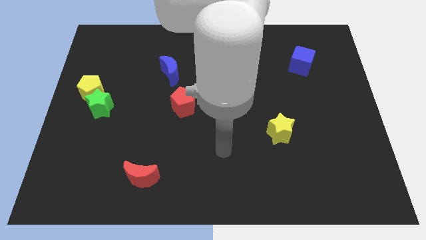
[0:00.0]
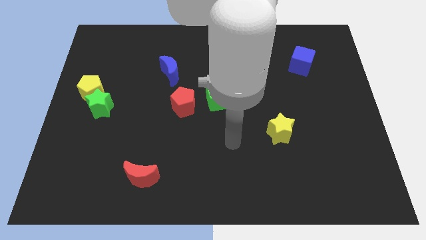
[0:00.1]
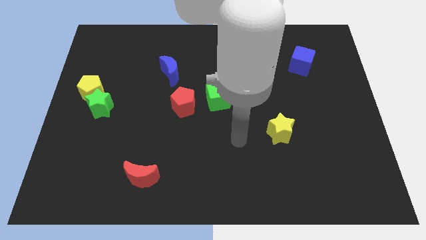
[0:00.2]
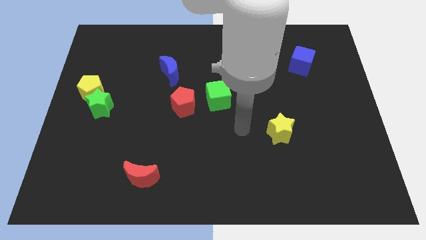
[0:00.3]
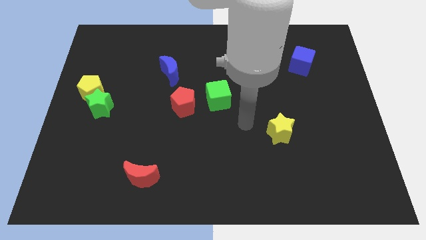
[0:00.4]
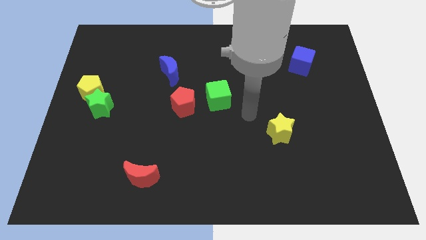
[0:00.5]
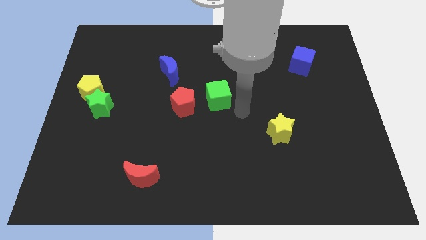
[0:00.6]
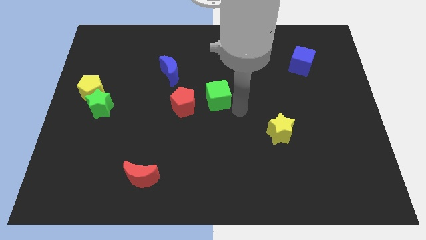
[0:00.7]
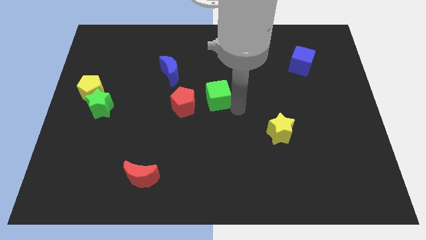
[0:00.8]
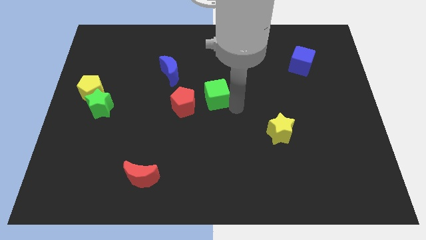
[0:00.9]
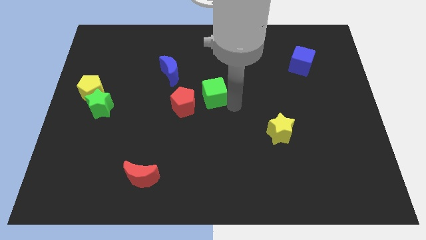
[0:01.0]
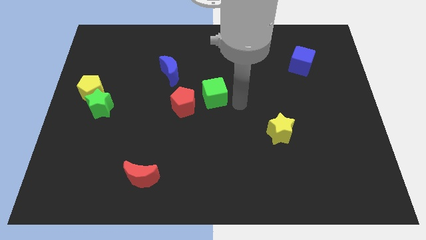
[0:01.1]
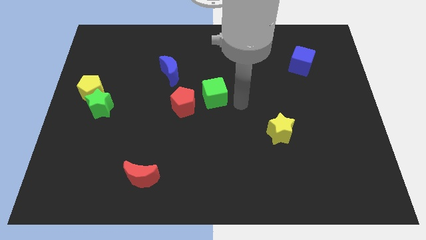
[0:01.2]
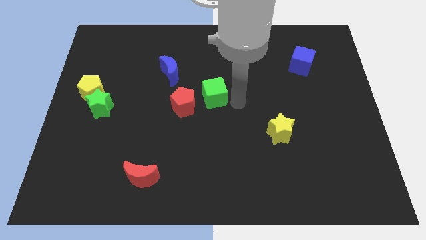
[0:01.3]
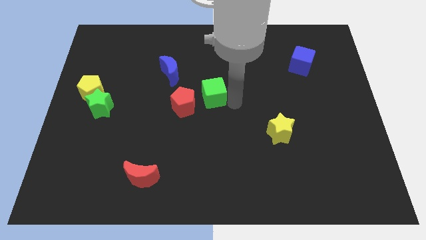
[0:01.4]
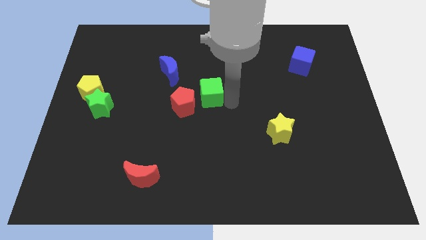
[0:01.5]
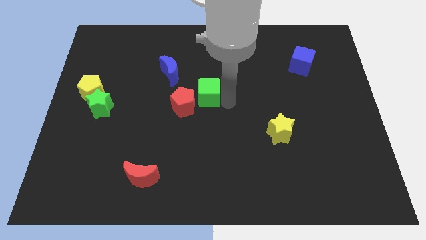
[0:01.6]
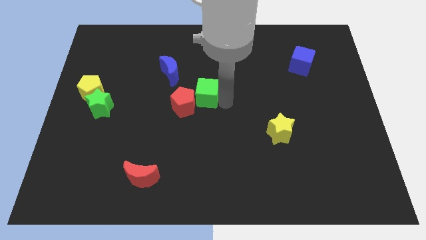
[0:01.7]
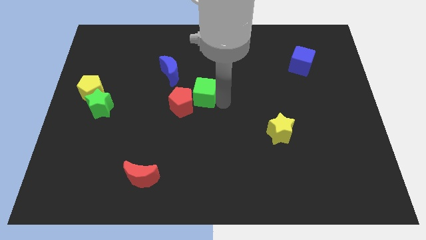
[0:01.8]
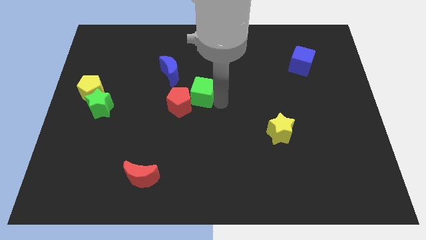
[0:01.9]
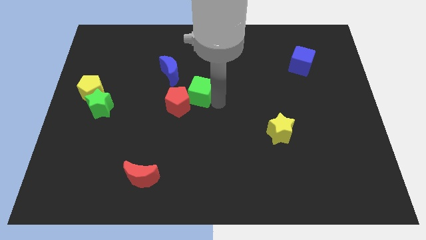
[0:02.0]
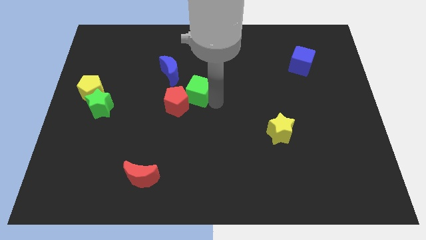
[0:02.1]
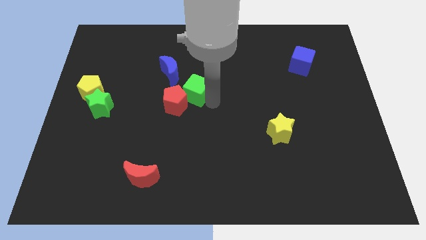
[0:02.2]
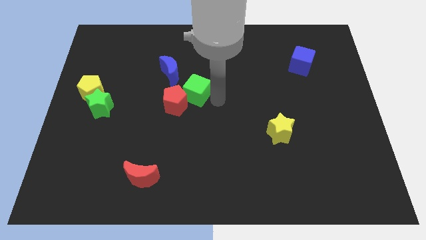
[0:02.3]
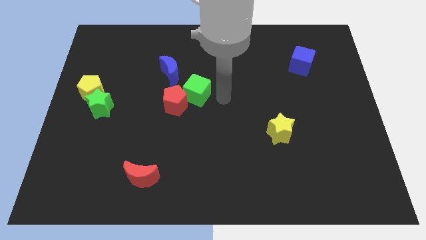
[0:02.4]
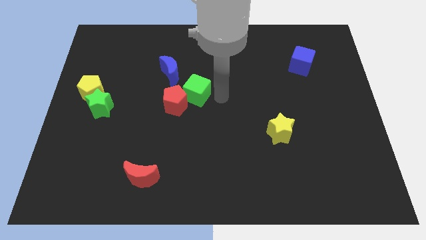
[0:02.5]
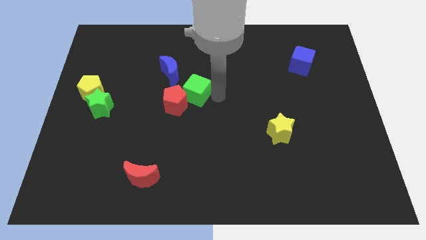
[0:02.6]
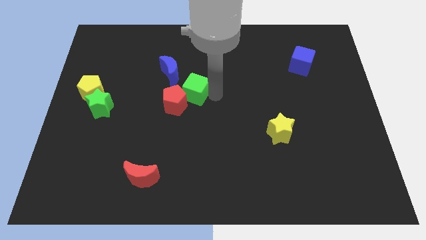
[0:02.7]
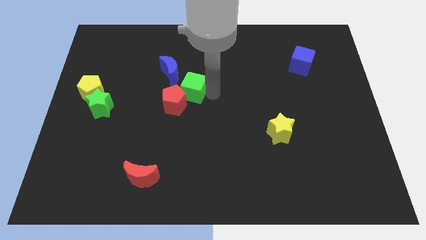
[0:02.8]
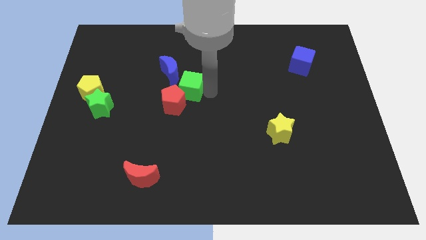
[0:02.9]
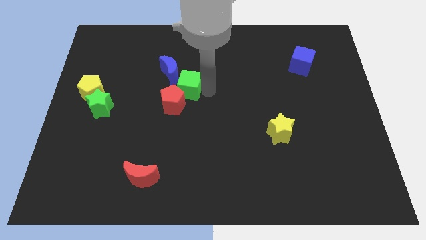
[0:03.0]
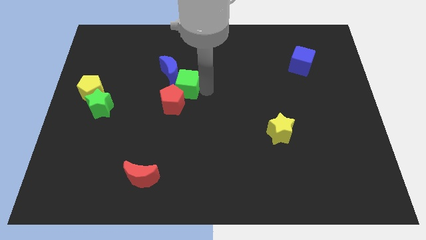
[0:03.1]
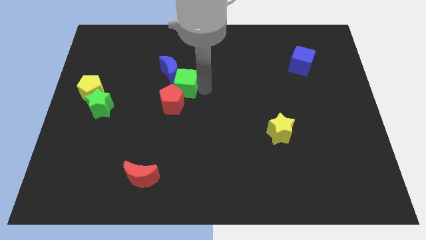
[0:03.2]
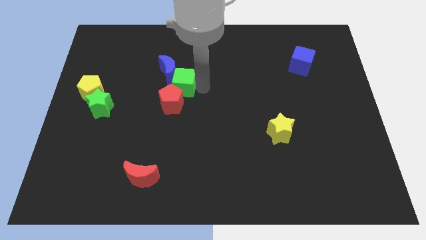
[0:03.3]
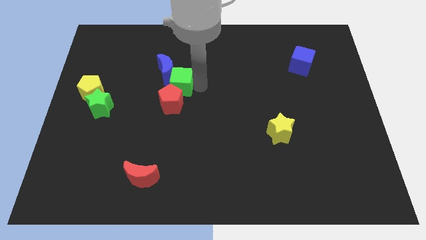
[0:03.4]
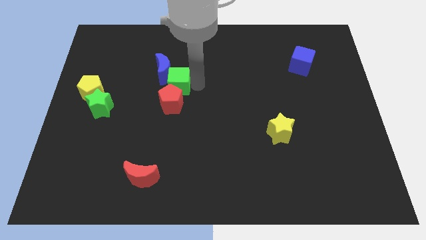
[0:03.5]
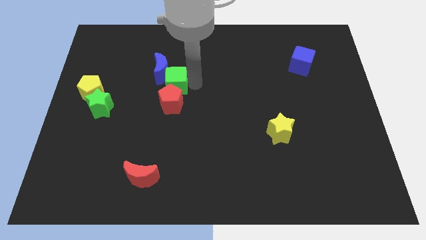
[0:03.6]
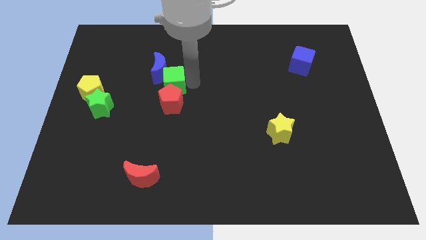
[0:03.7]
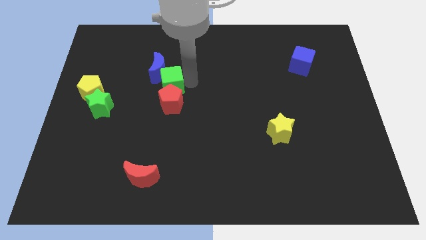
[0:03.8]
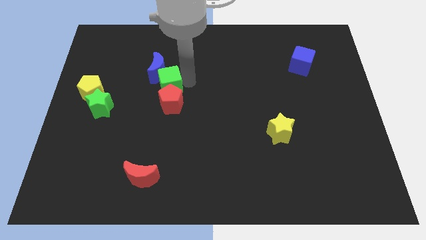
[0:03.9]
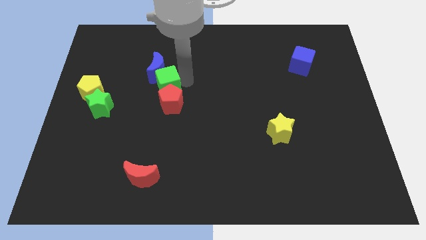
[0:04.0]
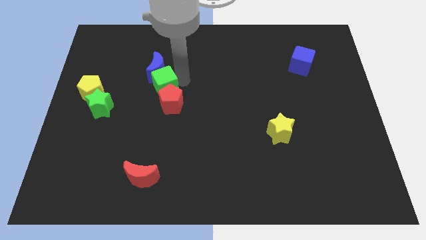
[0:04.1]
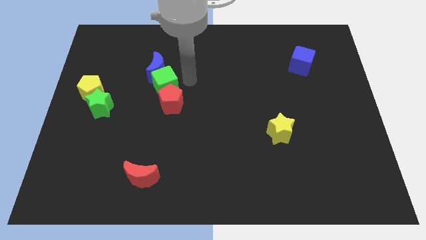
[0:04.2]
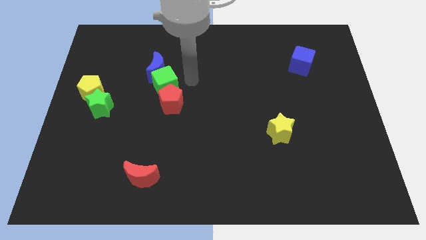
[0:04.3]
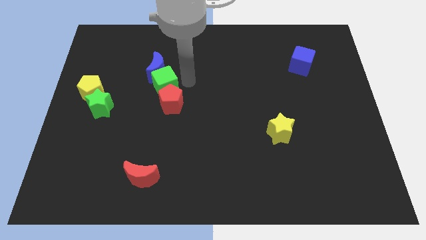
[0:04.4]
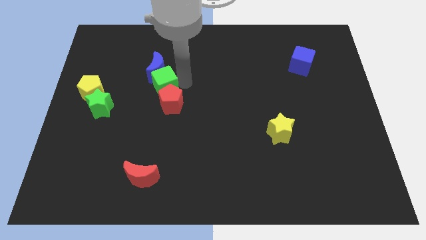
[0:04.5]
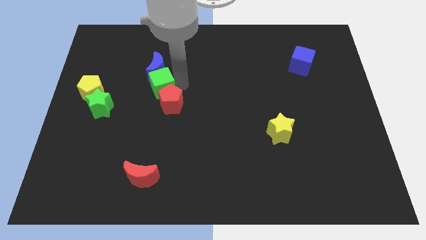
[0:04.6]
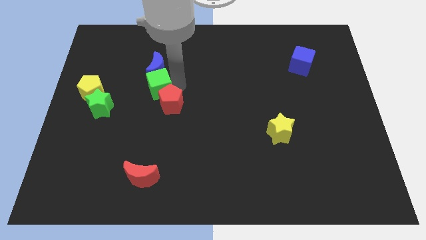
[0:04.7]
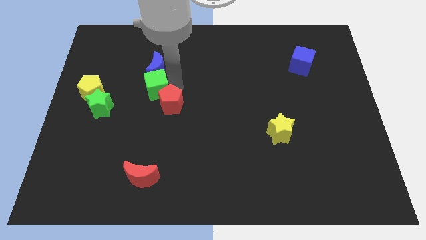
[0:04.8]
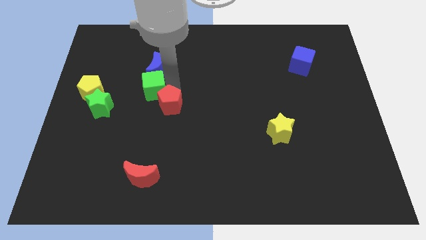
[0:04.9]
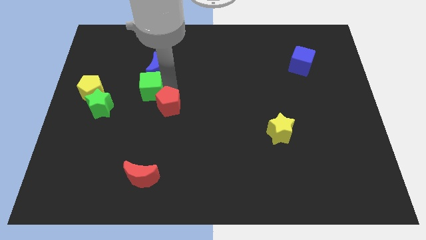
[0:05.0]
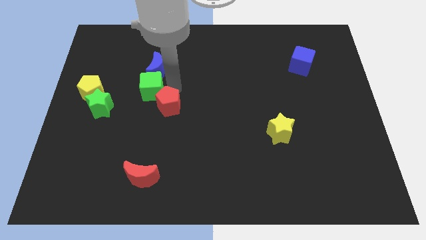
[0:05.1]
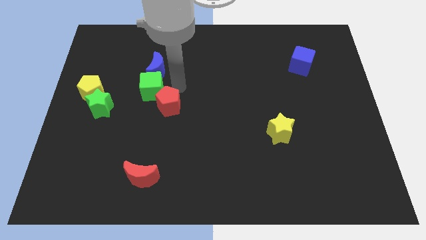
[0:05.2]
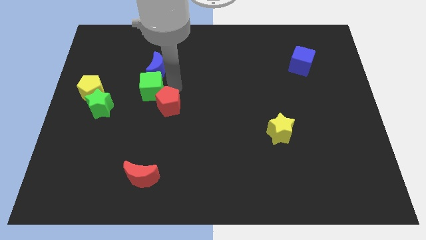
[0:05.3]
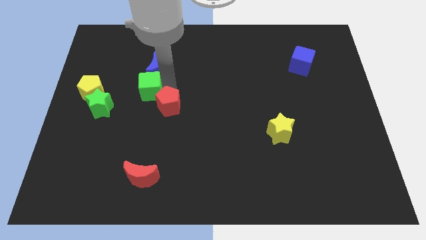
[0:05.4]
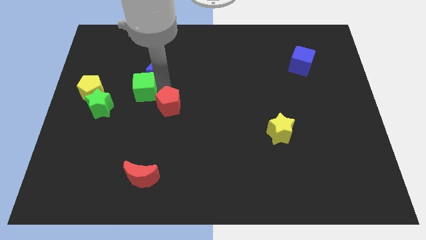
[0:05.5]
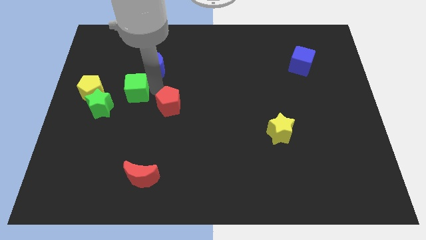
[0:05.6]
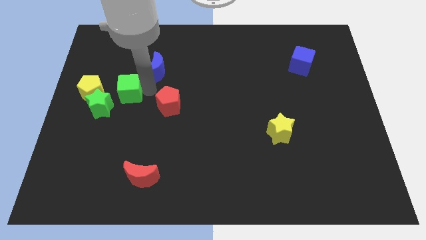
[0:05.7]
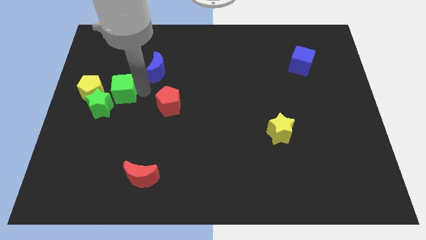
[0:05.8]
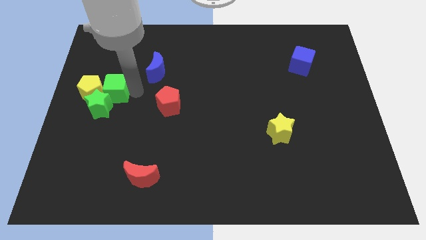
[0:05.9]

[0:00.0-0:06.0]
slide the green cube to the yellow pentagon

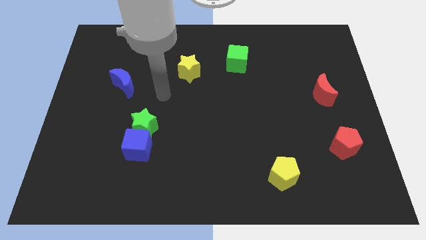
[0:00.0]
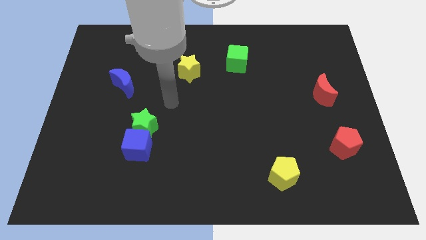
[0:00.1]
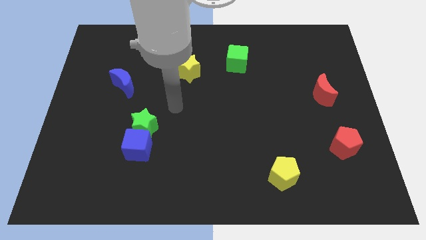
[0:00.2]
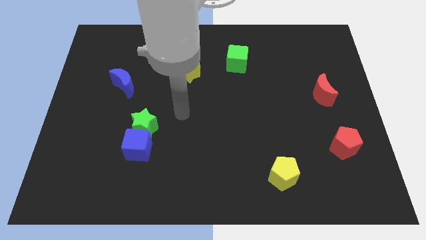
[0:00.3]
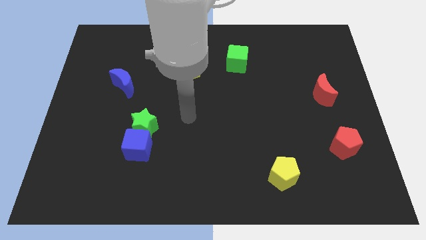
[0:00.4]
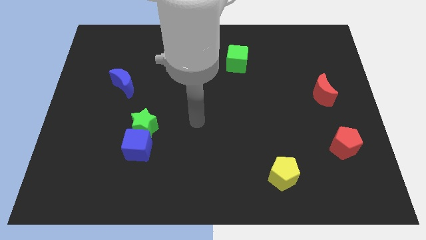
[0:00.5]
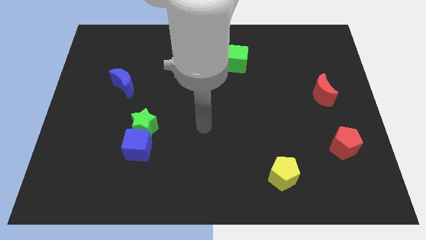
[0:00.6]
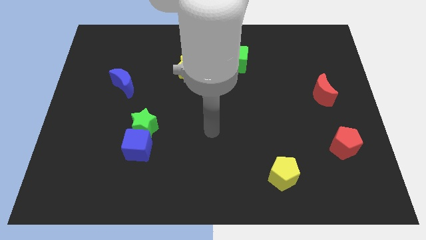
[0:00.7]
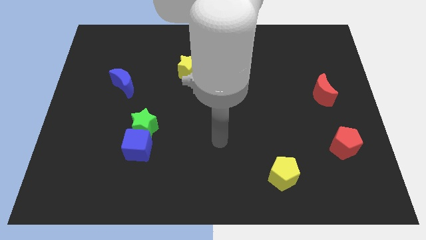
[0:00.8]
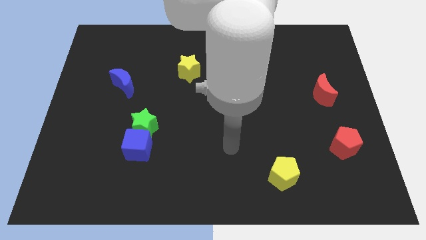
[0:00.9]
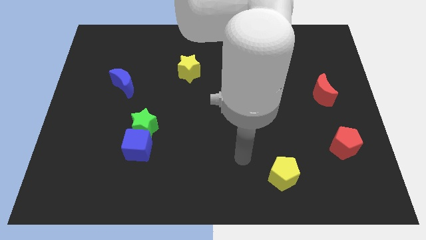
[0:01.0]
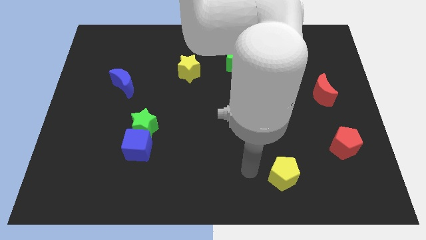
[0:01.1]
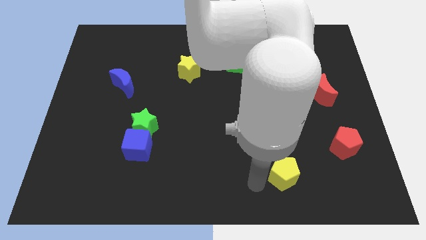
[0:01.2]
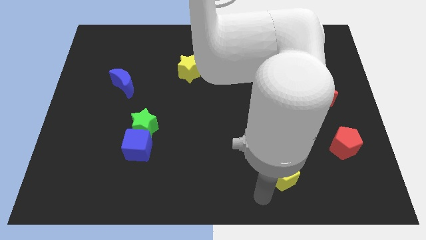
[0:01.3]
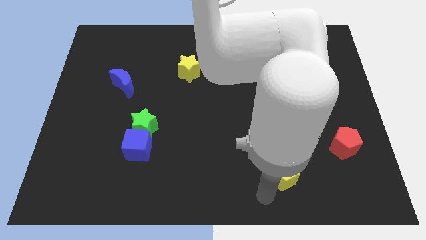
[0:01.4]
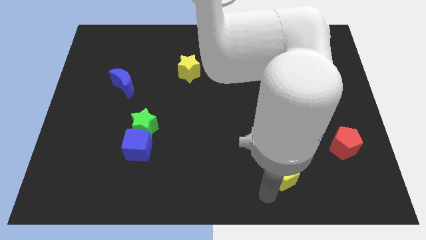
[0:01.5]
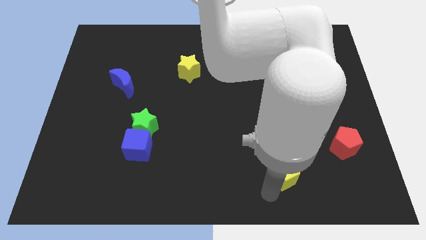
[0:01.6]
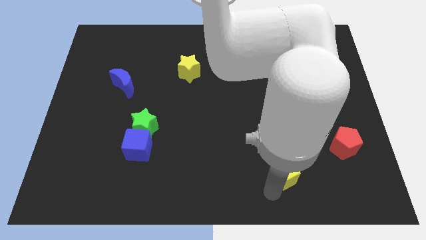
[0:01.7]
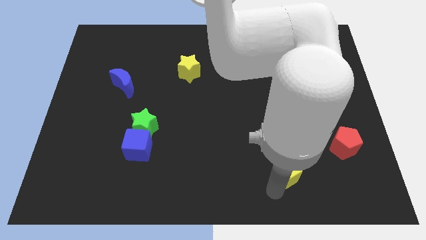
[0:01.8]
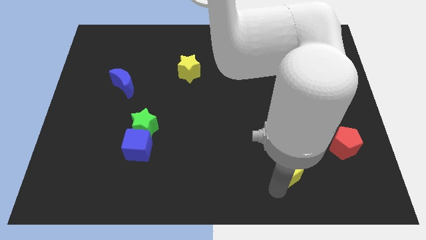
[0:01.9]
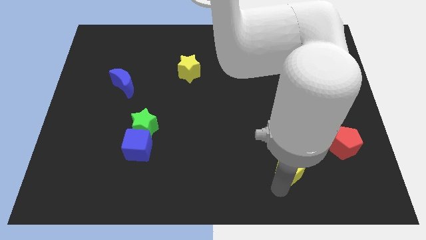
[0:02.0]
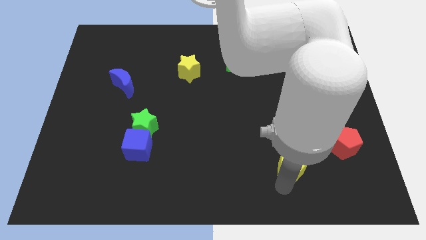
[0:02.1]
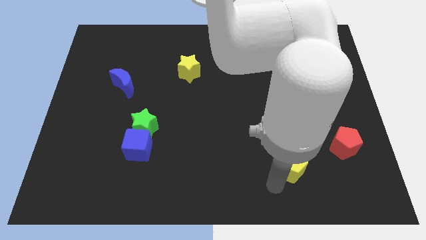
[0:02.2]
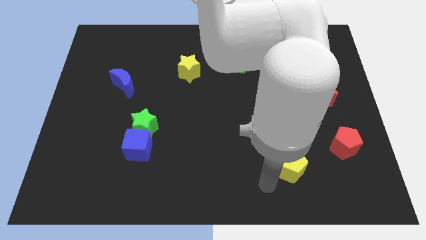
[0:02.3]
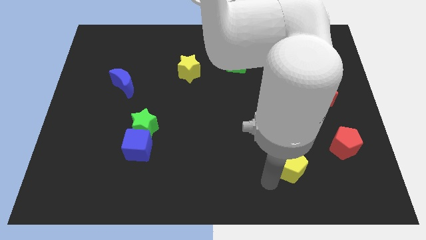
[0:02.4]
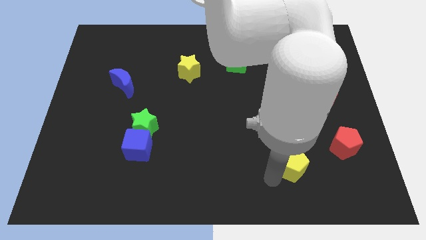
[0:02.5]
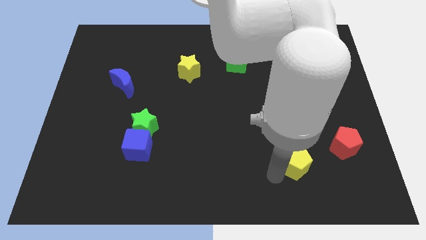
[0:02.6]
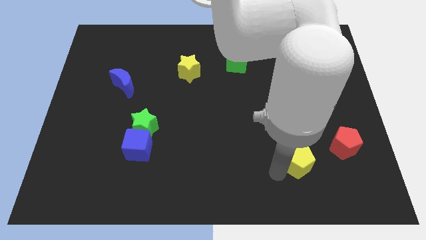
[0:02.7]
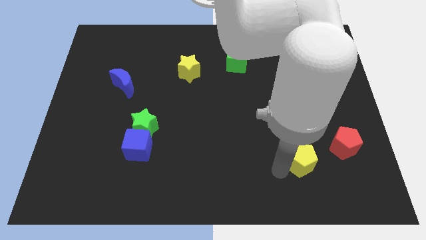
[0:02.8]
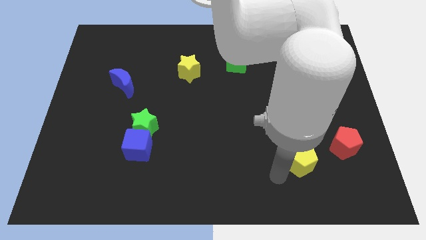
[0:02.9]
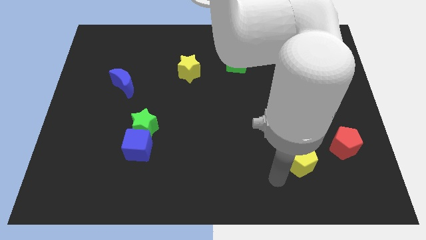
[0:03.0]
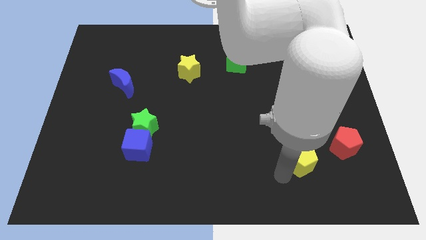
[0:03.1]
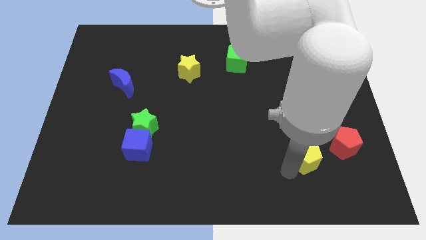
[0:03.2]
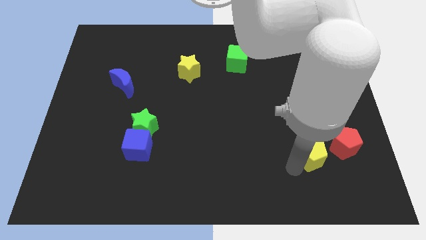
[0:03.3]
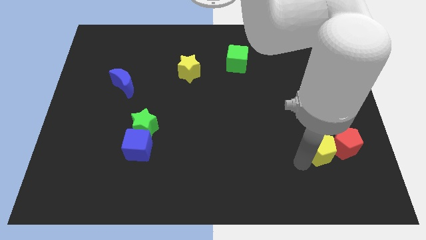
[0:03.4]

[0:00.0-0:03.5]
slide the yellow pentagon next to the red pentagon
